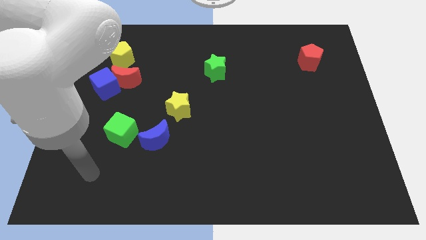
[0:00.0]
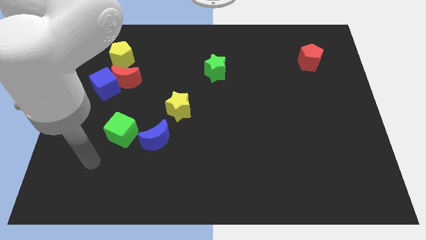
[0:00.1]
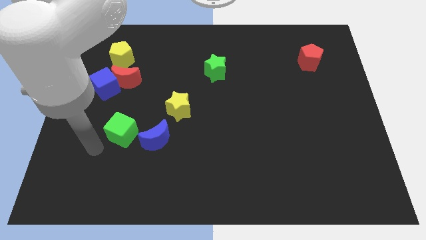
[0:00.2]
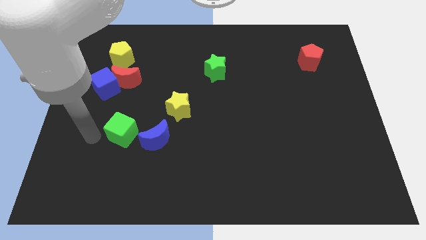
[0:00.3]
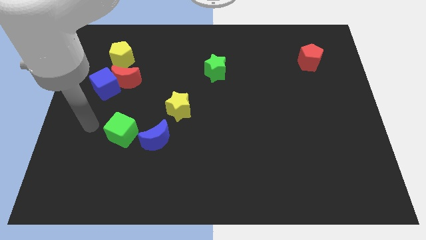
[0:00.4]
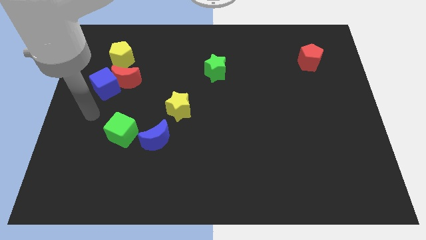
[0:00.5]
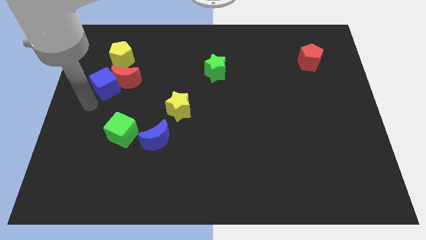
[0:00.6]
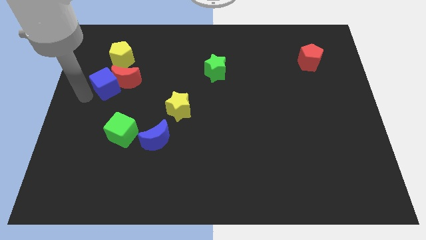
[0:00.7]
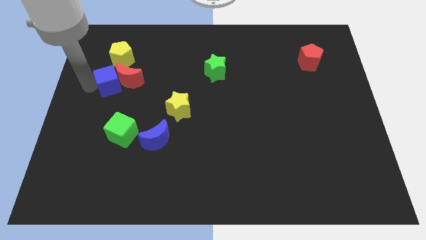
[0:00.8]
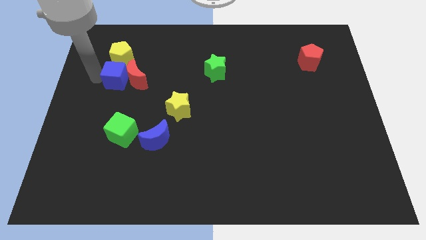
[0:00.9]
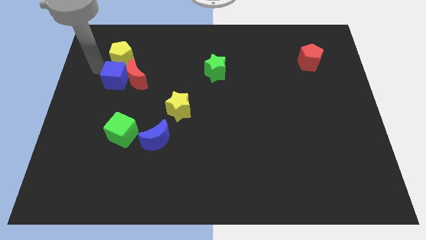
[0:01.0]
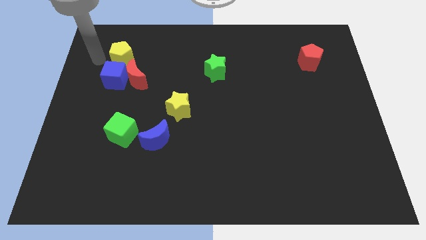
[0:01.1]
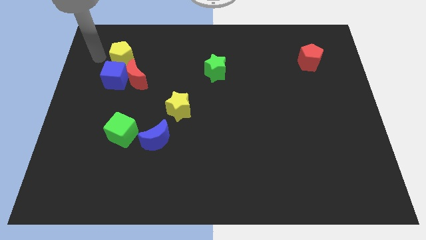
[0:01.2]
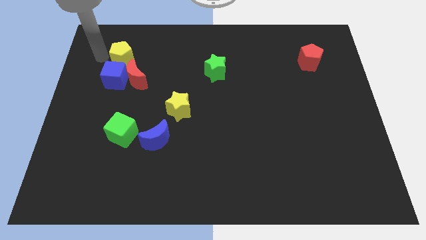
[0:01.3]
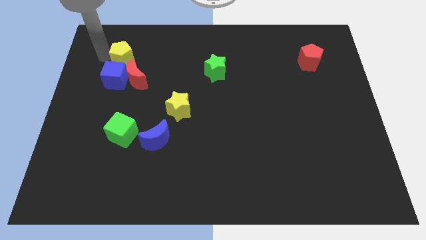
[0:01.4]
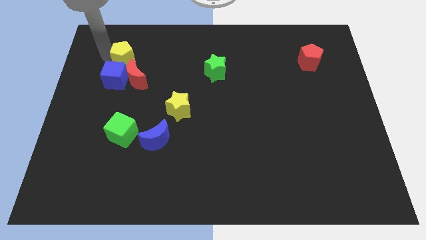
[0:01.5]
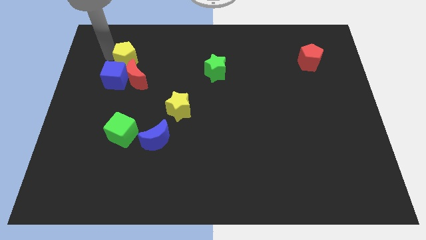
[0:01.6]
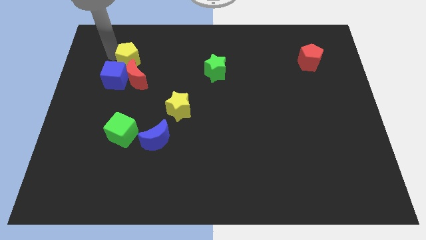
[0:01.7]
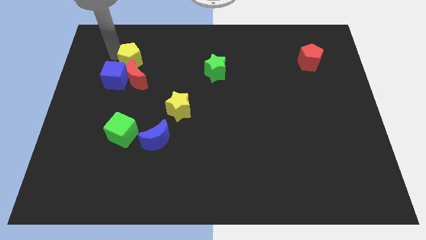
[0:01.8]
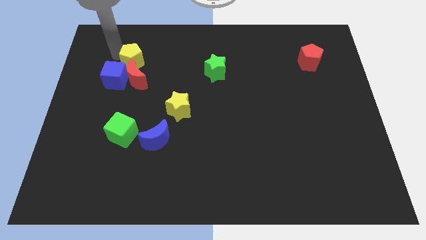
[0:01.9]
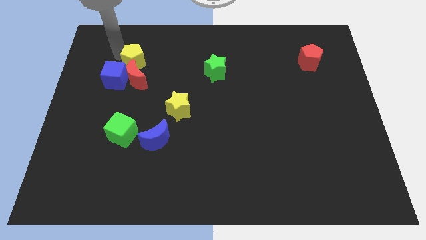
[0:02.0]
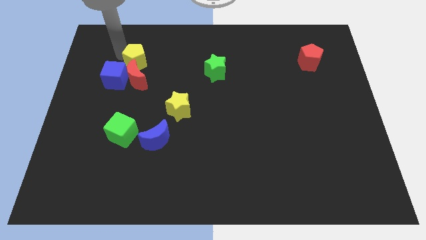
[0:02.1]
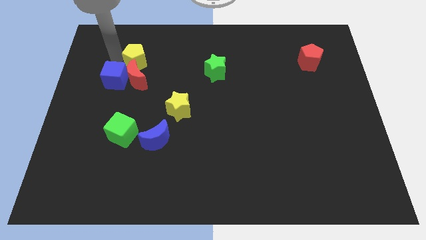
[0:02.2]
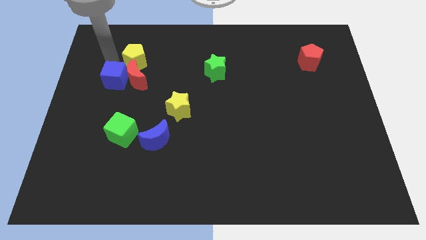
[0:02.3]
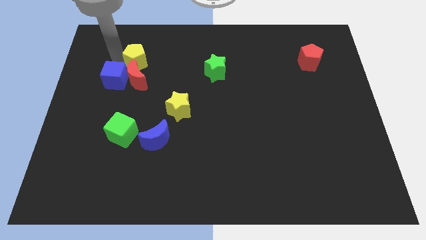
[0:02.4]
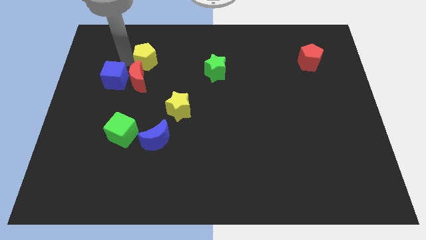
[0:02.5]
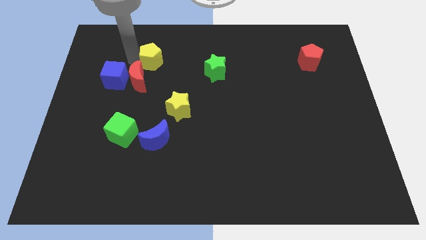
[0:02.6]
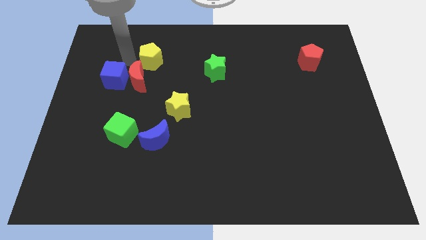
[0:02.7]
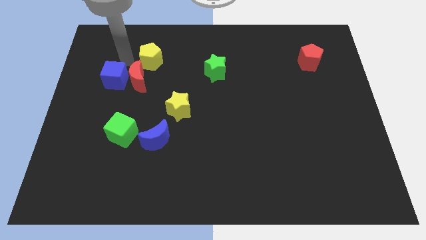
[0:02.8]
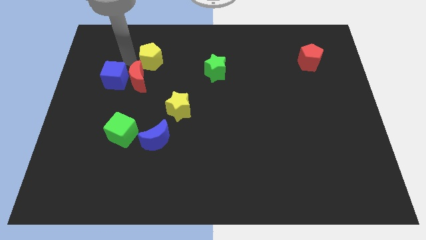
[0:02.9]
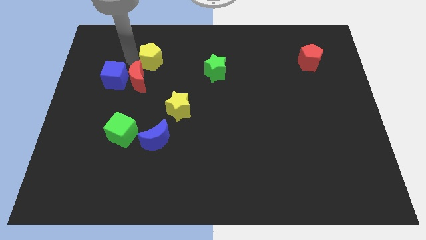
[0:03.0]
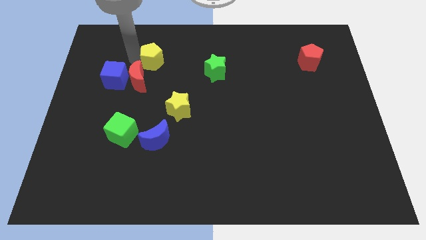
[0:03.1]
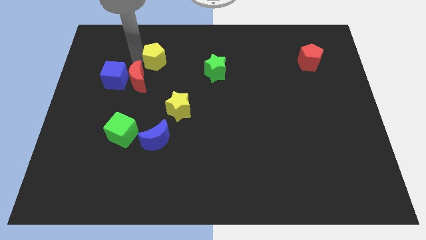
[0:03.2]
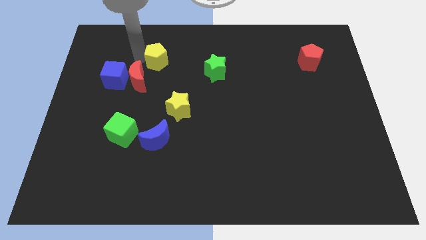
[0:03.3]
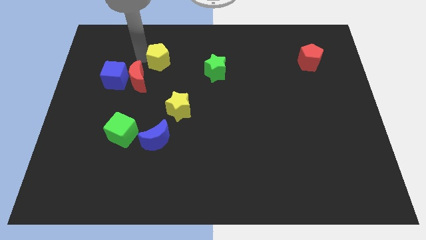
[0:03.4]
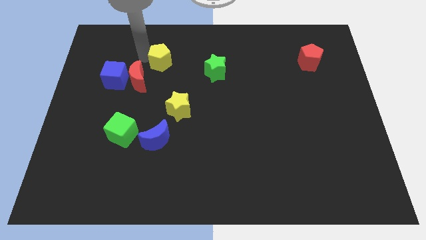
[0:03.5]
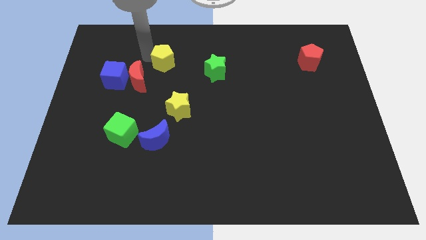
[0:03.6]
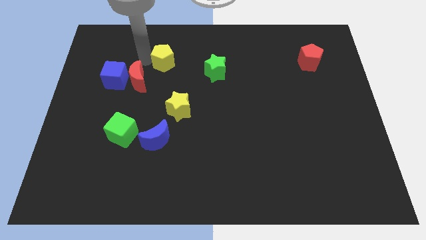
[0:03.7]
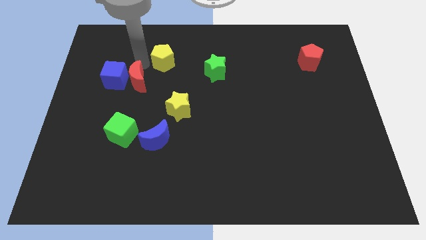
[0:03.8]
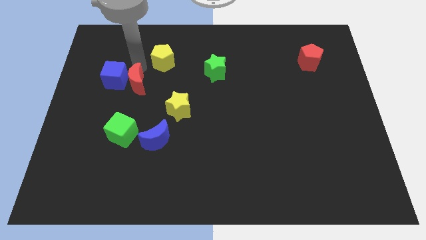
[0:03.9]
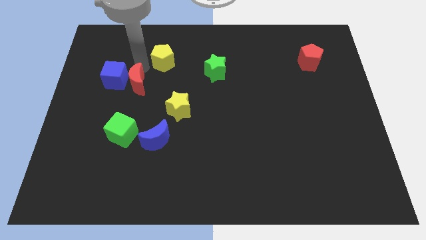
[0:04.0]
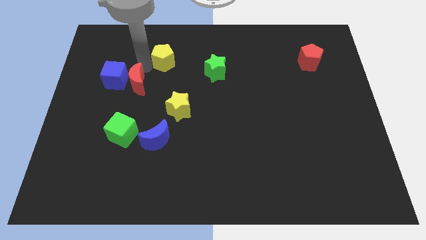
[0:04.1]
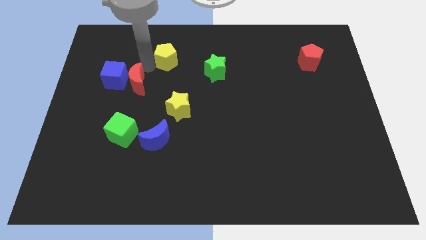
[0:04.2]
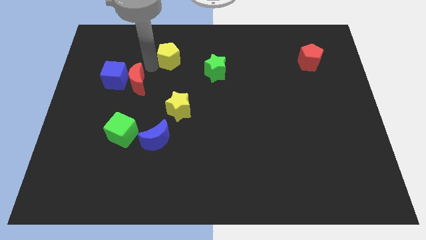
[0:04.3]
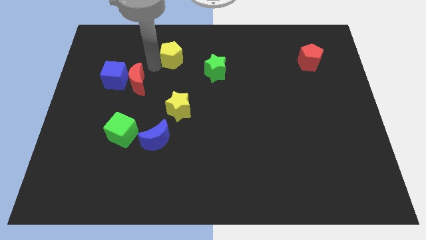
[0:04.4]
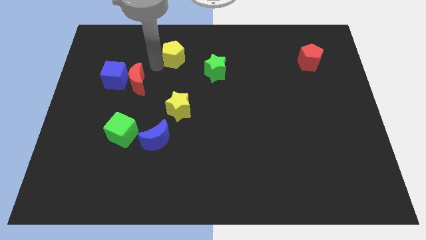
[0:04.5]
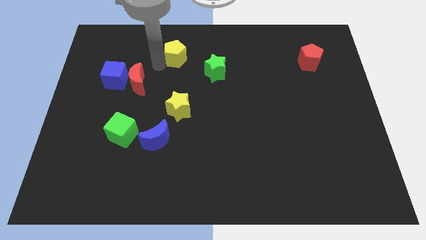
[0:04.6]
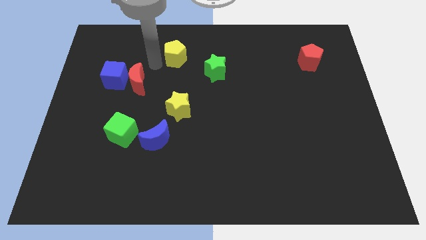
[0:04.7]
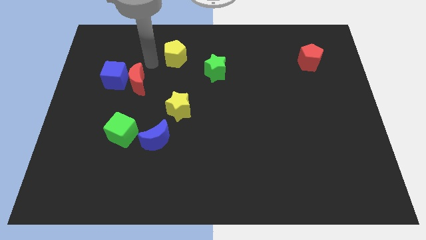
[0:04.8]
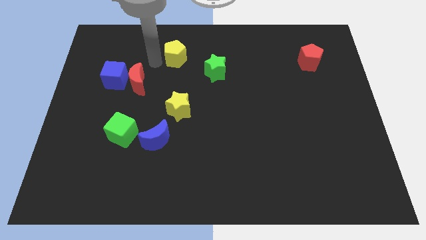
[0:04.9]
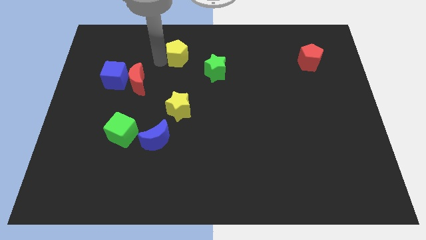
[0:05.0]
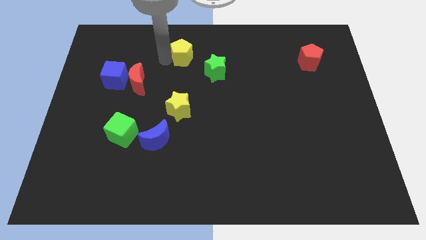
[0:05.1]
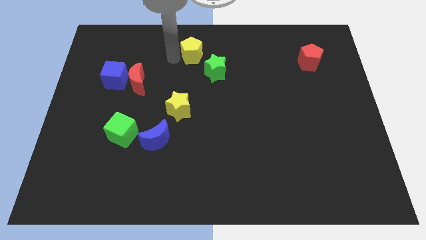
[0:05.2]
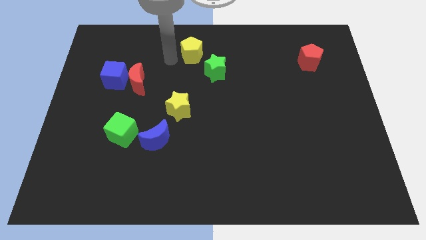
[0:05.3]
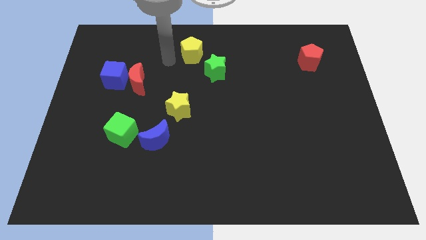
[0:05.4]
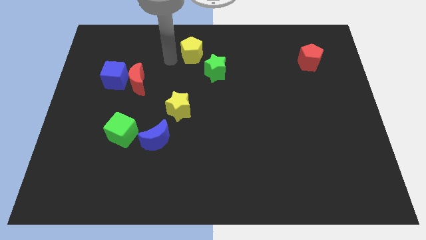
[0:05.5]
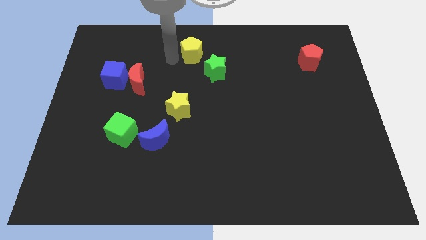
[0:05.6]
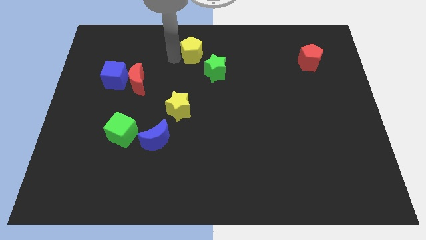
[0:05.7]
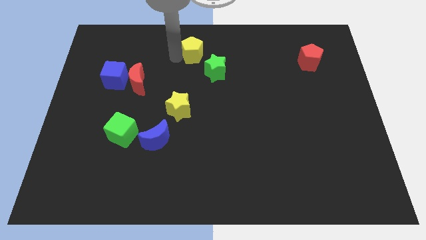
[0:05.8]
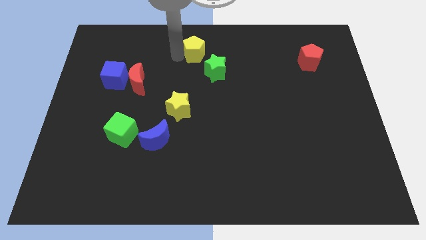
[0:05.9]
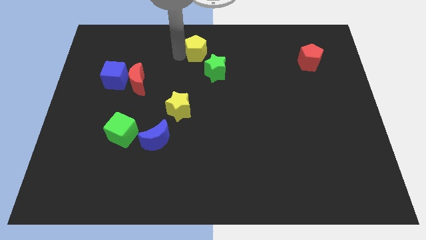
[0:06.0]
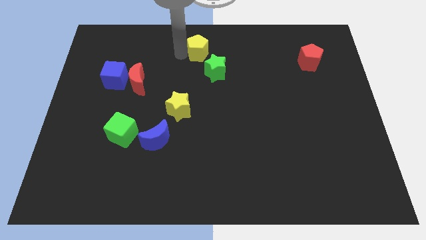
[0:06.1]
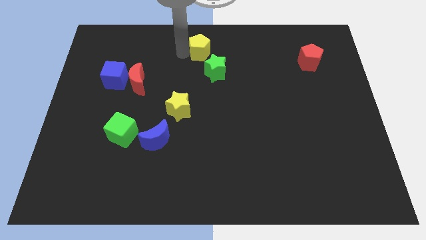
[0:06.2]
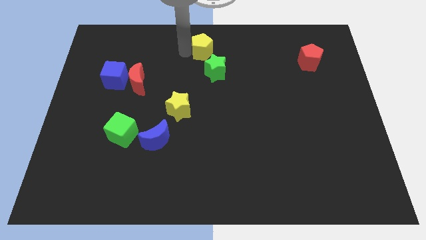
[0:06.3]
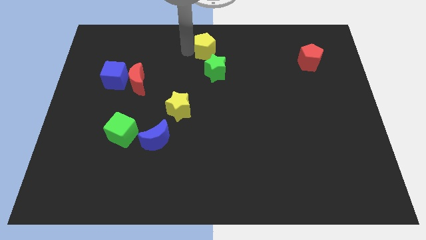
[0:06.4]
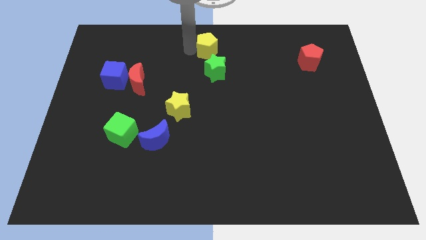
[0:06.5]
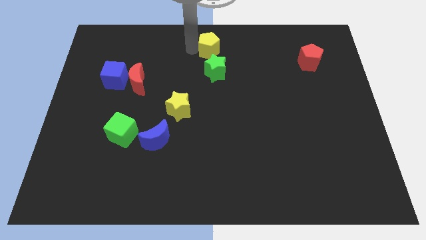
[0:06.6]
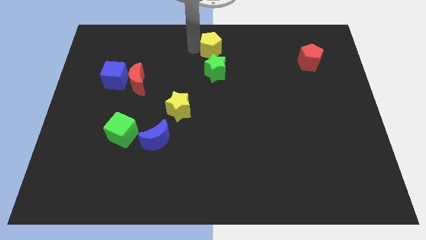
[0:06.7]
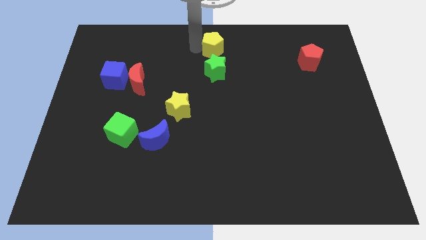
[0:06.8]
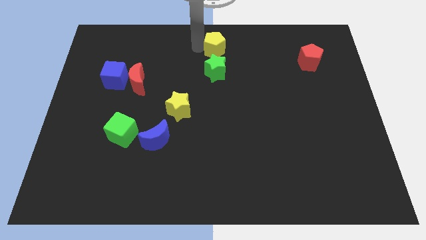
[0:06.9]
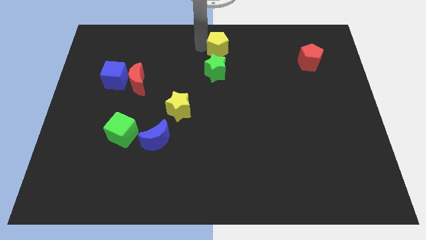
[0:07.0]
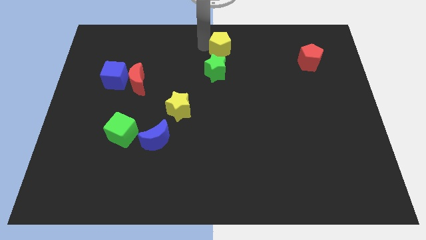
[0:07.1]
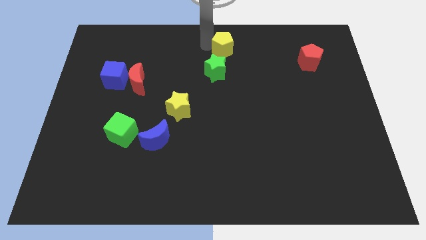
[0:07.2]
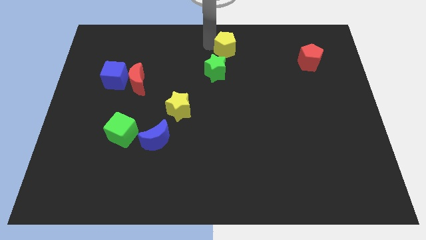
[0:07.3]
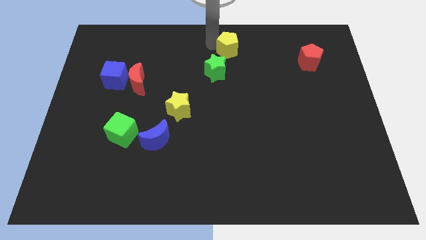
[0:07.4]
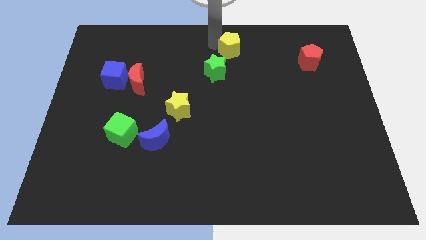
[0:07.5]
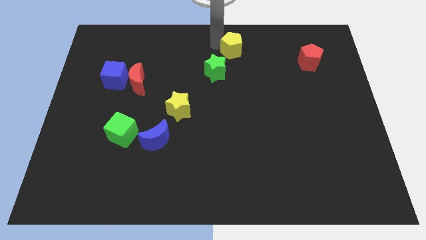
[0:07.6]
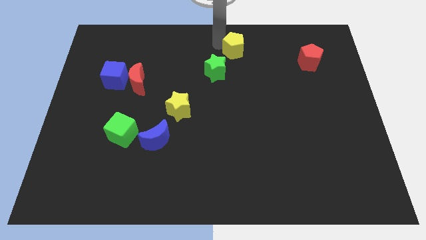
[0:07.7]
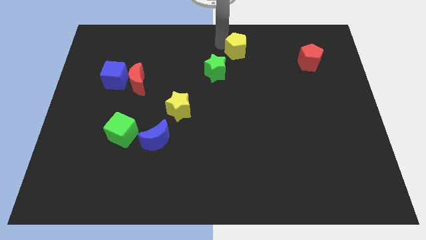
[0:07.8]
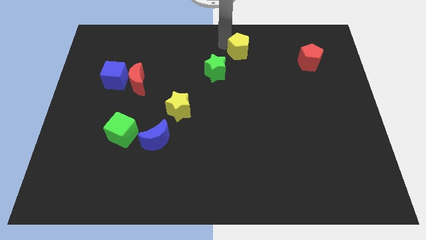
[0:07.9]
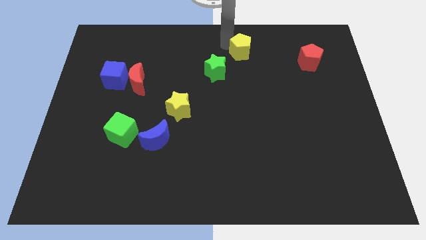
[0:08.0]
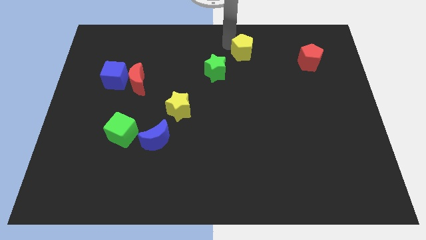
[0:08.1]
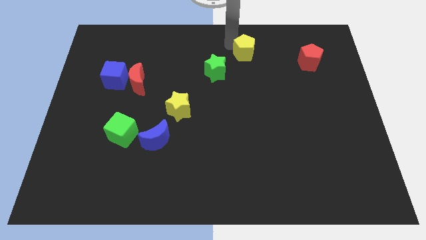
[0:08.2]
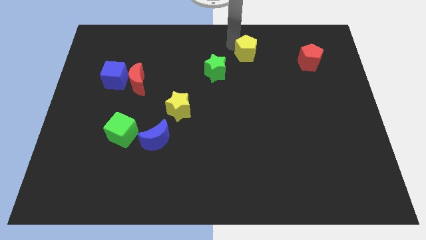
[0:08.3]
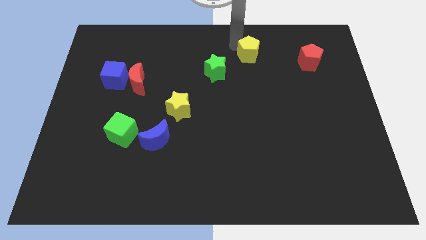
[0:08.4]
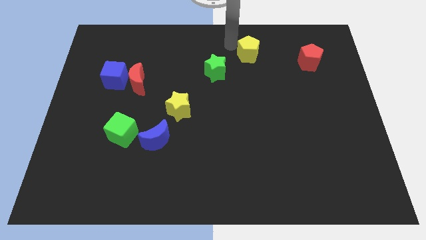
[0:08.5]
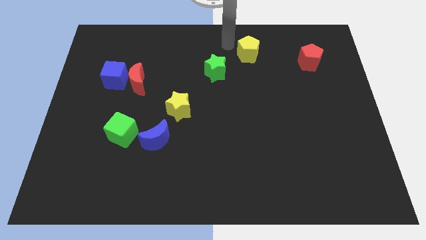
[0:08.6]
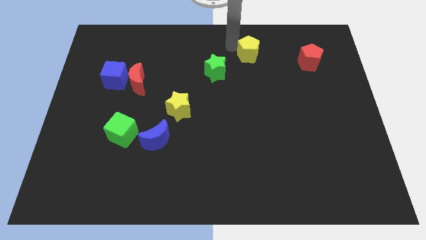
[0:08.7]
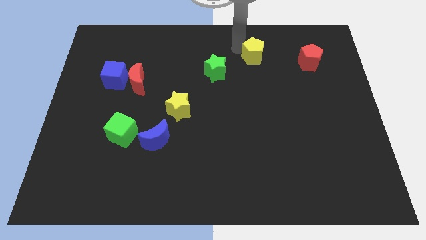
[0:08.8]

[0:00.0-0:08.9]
slide the yellow pentagon left of the red pentagon
